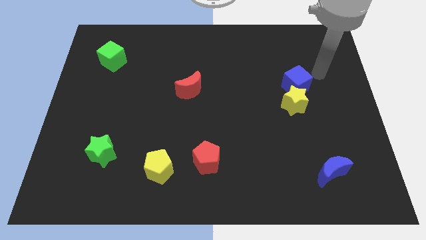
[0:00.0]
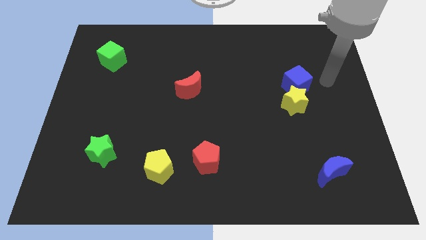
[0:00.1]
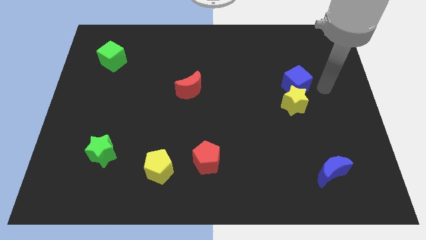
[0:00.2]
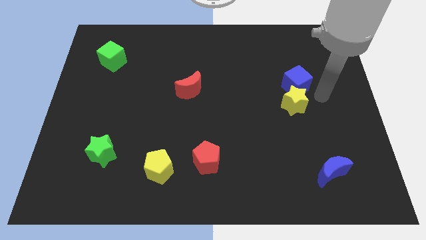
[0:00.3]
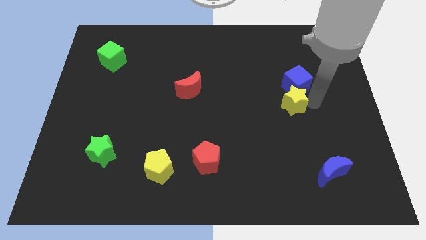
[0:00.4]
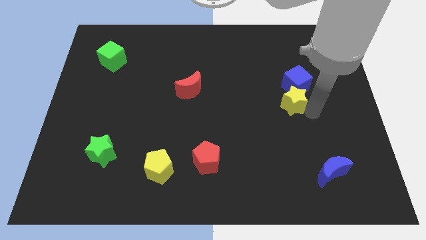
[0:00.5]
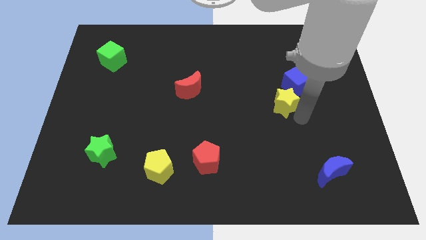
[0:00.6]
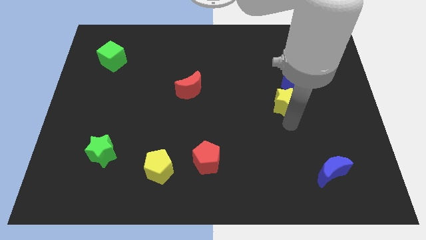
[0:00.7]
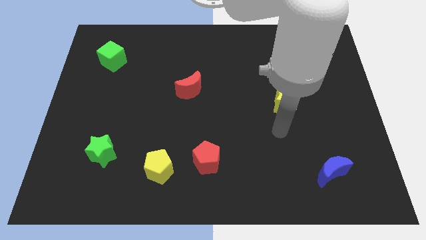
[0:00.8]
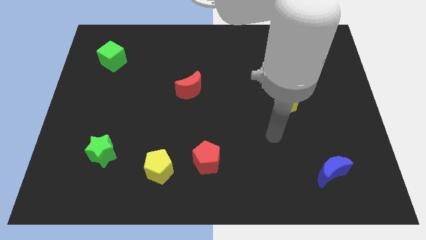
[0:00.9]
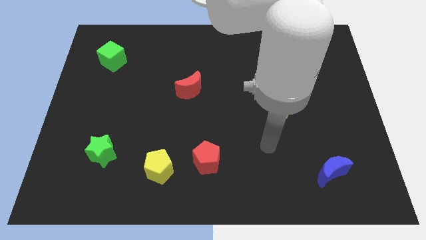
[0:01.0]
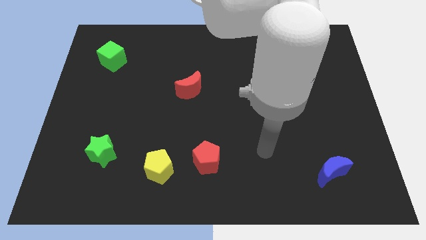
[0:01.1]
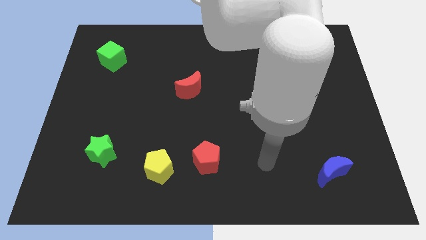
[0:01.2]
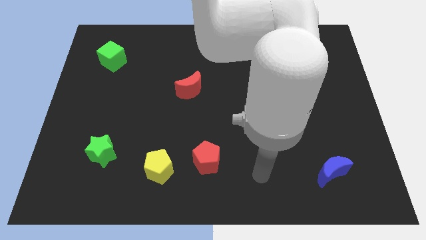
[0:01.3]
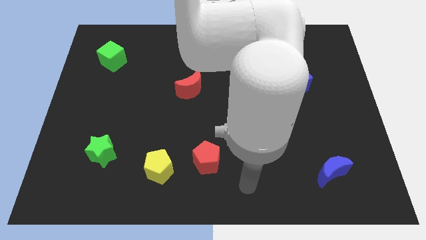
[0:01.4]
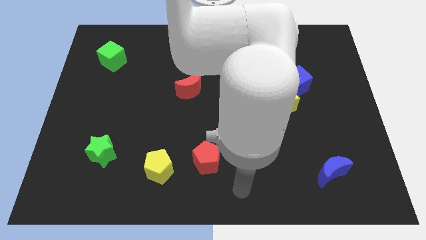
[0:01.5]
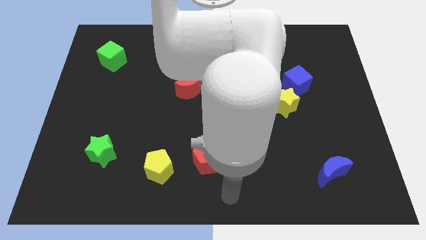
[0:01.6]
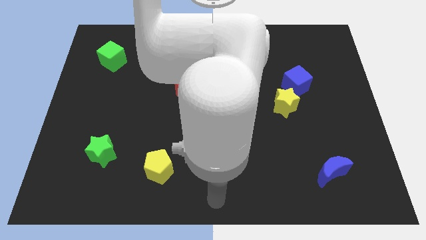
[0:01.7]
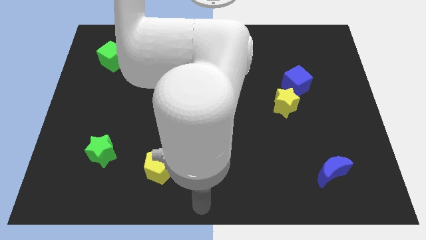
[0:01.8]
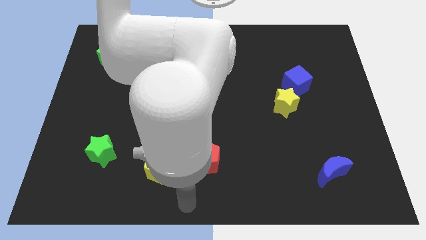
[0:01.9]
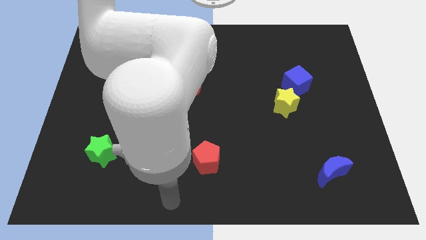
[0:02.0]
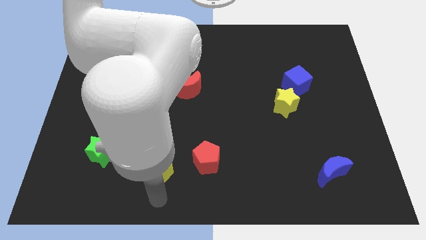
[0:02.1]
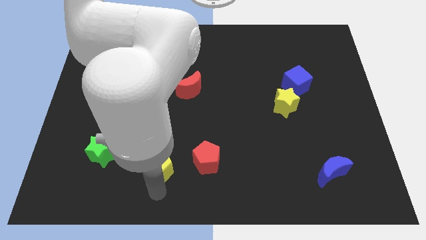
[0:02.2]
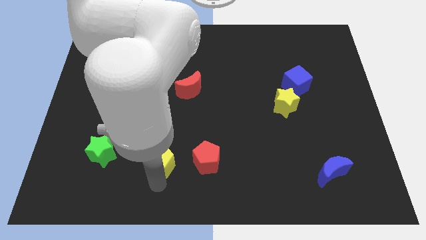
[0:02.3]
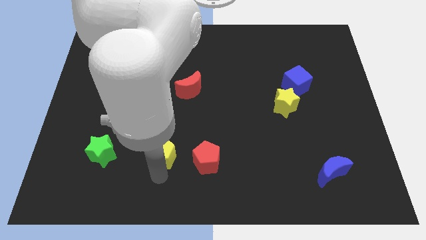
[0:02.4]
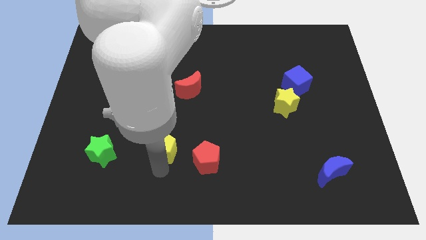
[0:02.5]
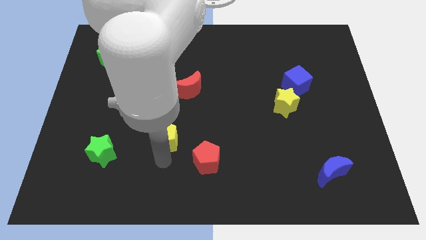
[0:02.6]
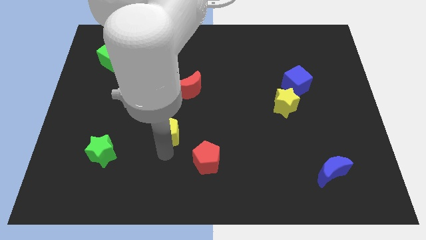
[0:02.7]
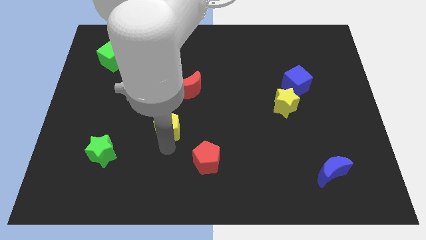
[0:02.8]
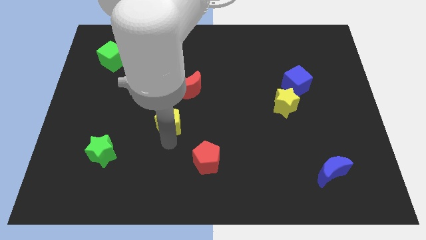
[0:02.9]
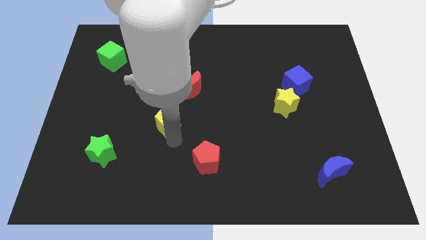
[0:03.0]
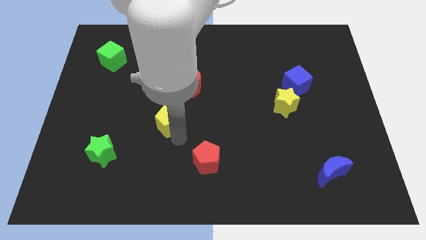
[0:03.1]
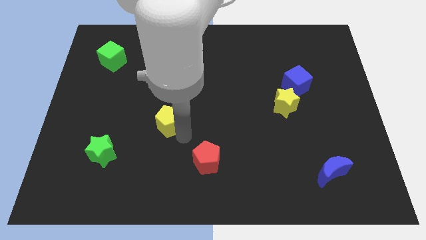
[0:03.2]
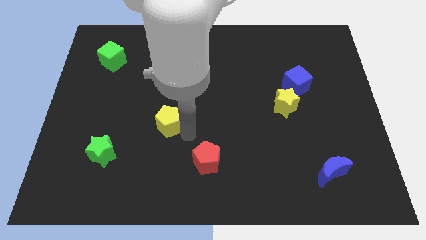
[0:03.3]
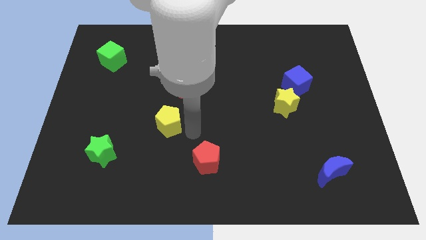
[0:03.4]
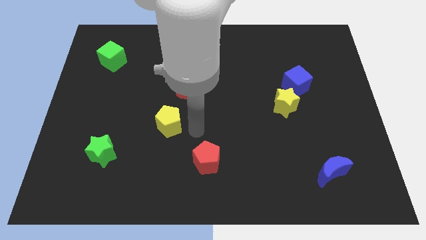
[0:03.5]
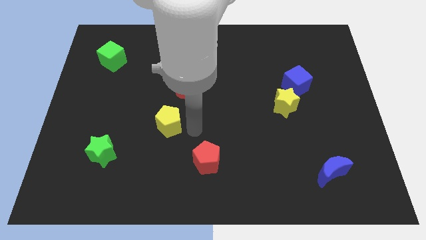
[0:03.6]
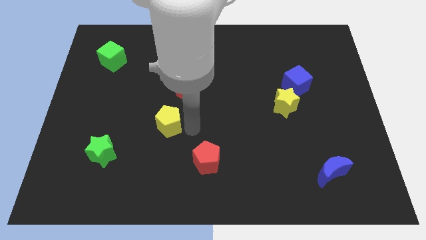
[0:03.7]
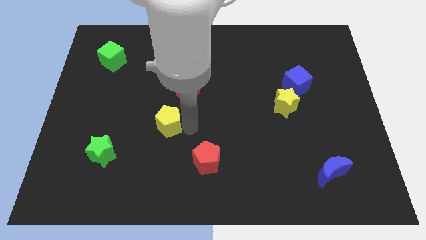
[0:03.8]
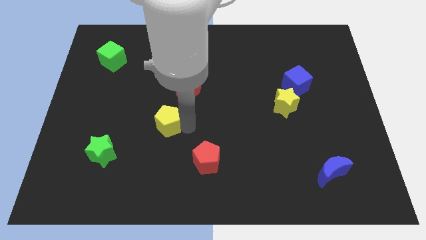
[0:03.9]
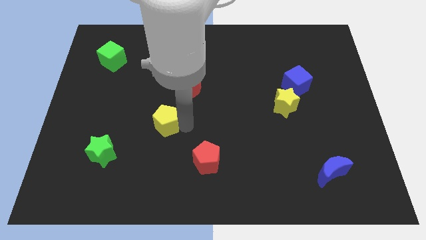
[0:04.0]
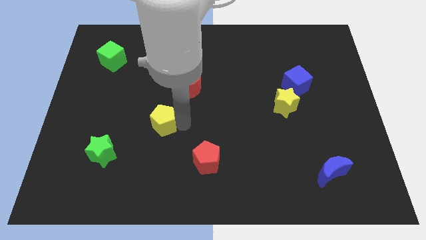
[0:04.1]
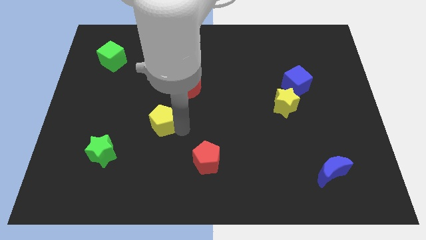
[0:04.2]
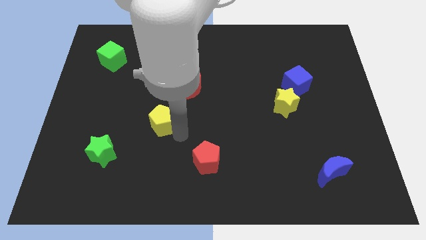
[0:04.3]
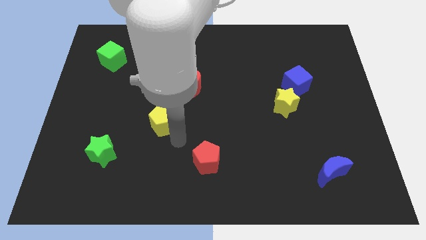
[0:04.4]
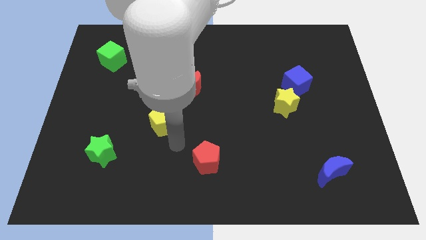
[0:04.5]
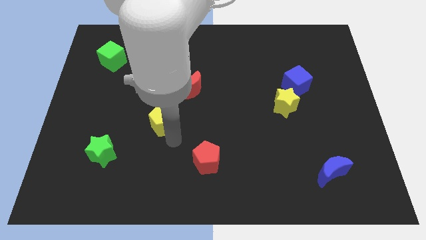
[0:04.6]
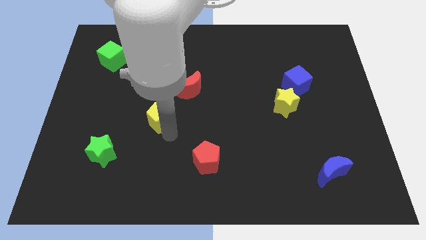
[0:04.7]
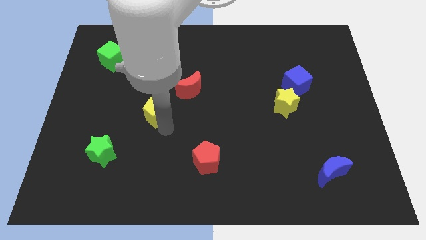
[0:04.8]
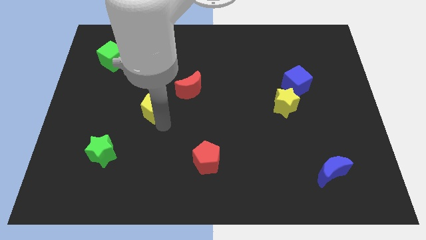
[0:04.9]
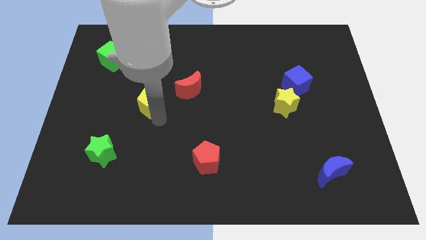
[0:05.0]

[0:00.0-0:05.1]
put the yellow pentagon to the left side of the red moon

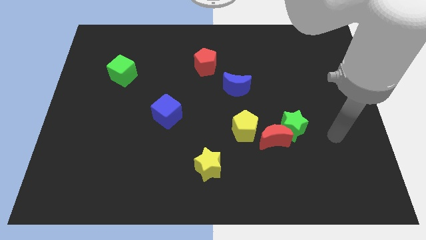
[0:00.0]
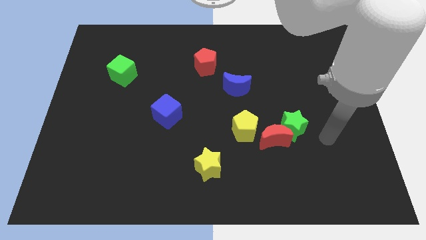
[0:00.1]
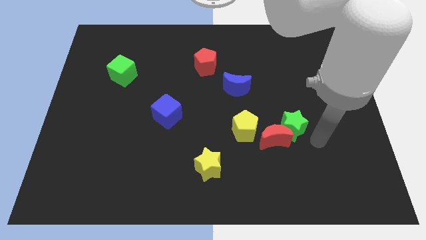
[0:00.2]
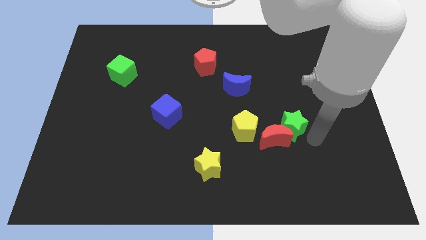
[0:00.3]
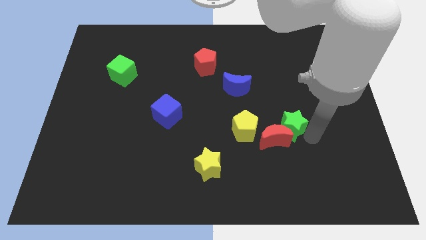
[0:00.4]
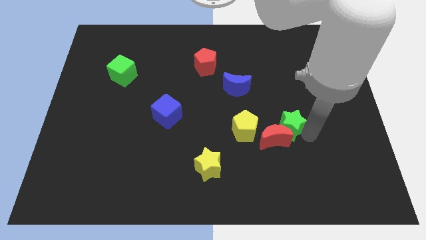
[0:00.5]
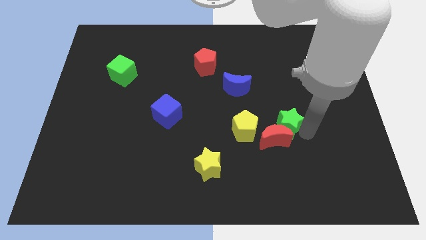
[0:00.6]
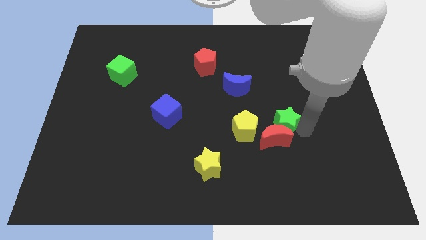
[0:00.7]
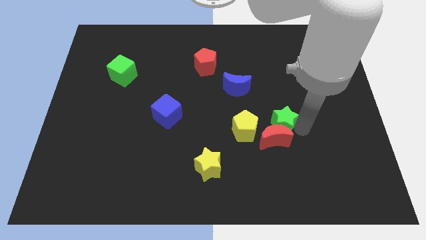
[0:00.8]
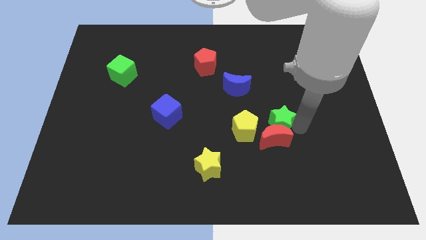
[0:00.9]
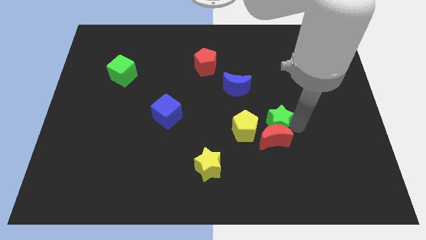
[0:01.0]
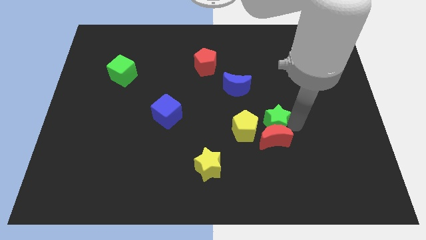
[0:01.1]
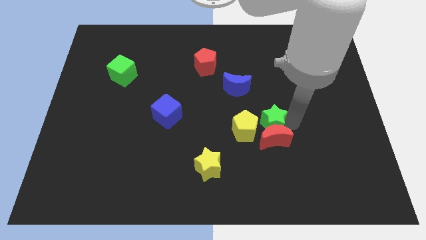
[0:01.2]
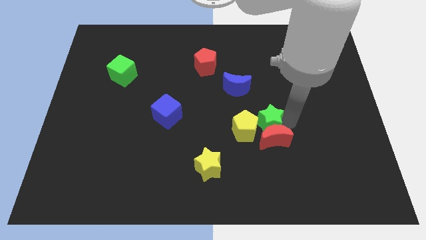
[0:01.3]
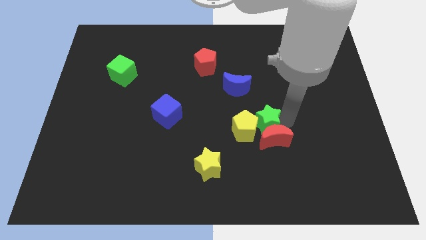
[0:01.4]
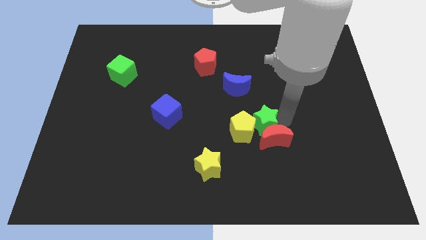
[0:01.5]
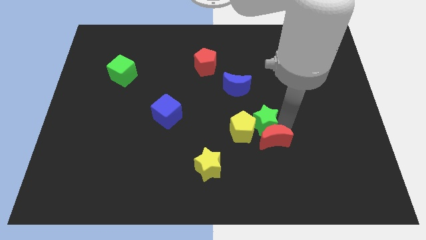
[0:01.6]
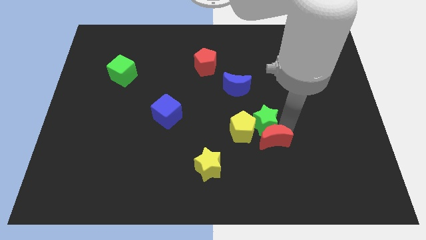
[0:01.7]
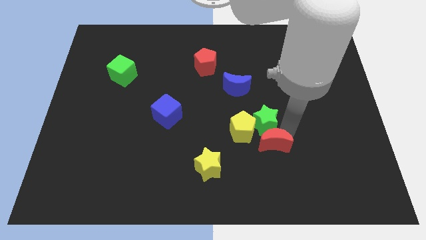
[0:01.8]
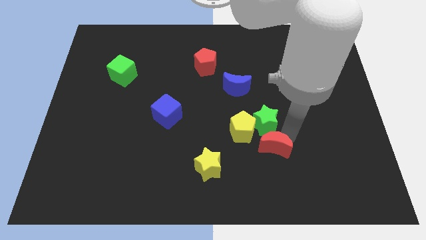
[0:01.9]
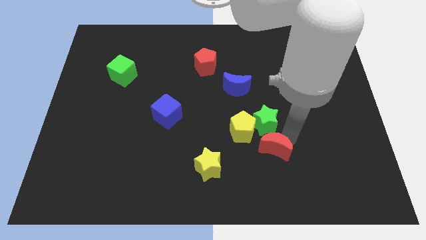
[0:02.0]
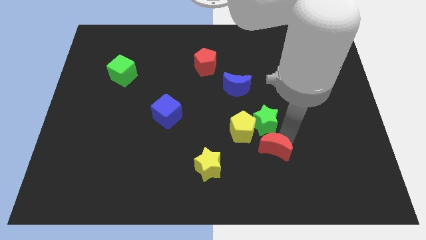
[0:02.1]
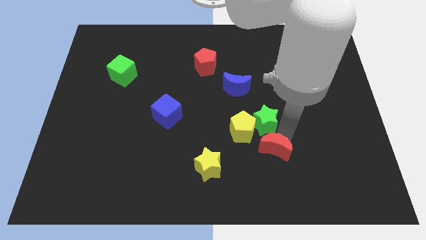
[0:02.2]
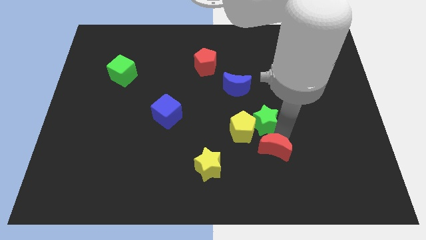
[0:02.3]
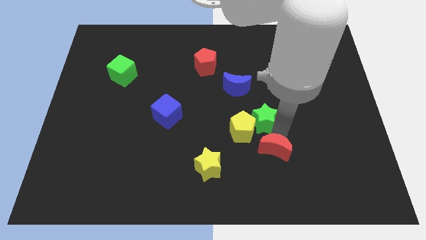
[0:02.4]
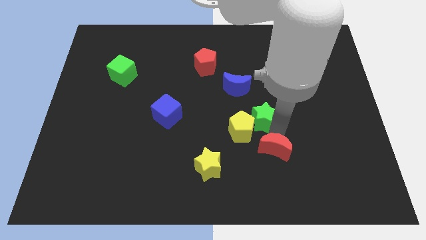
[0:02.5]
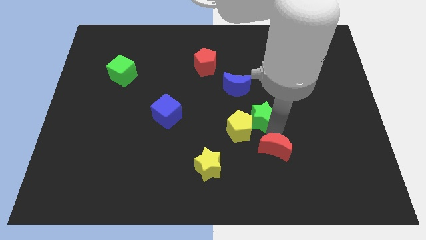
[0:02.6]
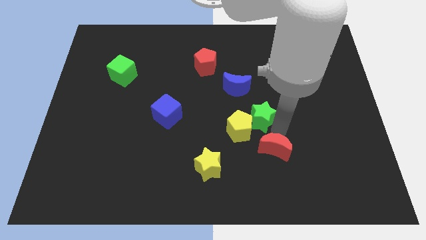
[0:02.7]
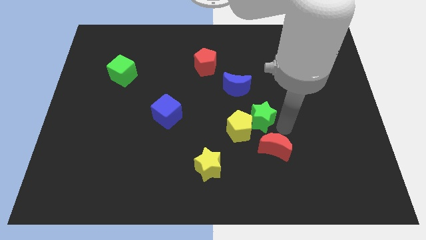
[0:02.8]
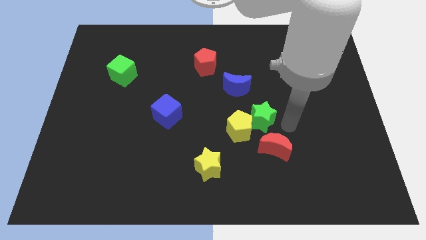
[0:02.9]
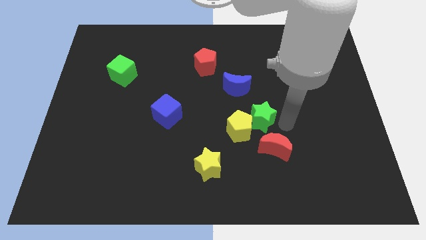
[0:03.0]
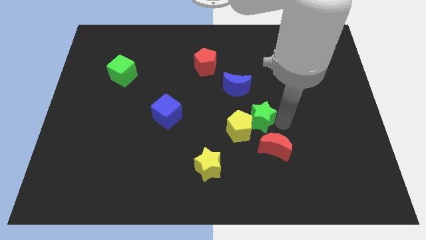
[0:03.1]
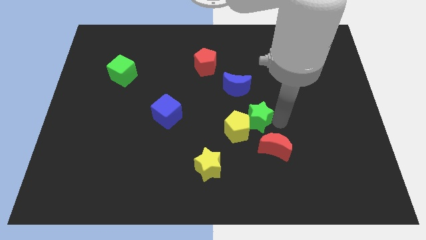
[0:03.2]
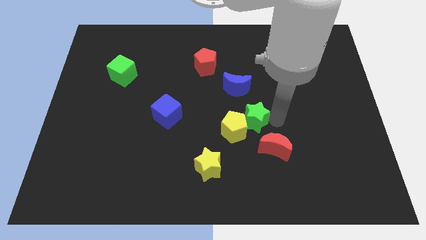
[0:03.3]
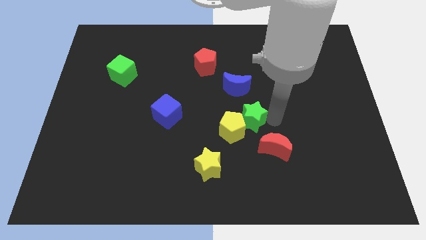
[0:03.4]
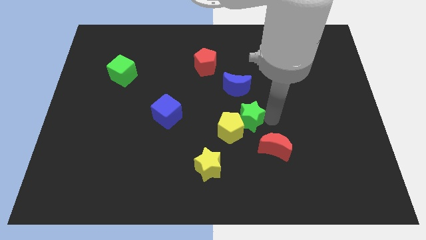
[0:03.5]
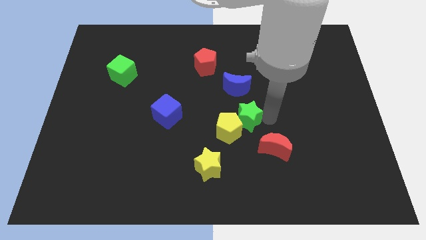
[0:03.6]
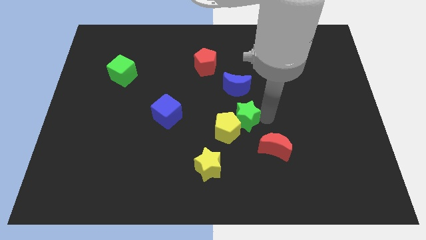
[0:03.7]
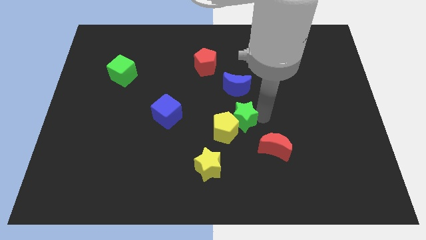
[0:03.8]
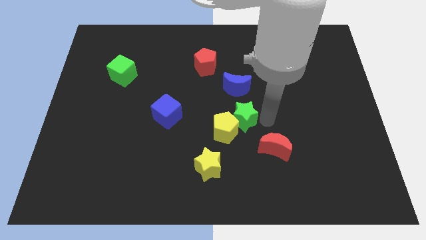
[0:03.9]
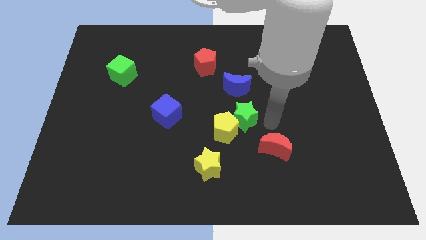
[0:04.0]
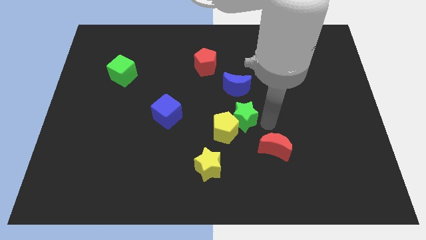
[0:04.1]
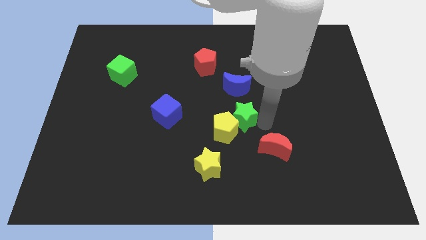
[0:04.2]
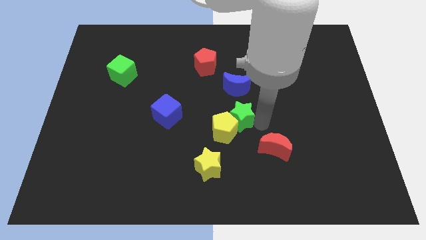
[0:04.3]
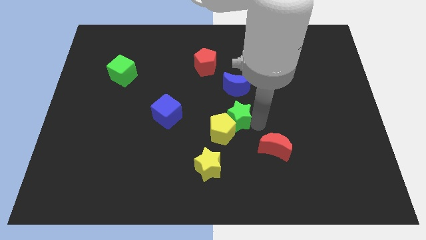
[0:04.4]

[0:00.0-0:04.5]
put the green star just right of the blue cube
